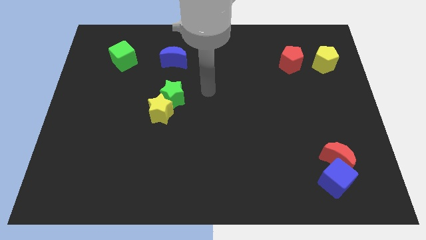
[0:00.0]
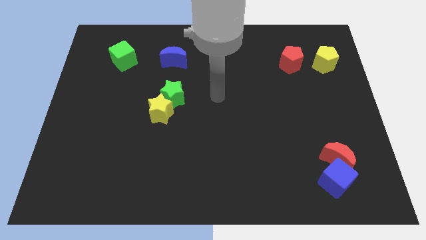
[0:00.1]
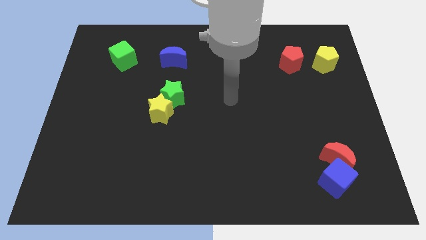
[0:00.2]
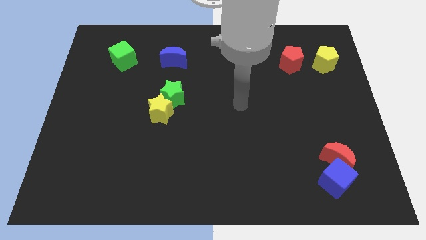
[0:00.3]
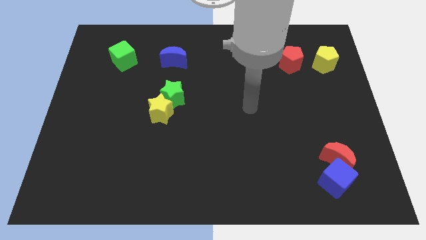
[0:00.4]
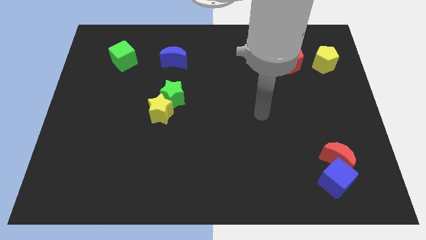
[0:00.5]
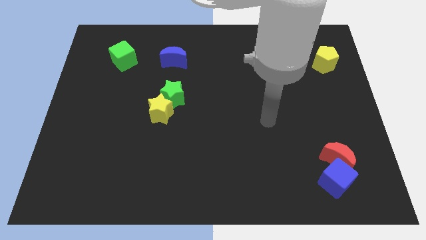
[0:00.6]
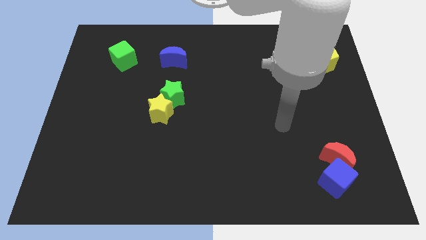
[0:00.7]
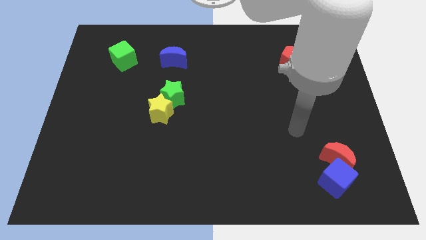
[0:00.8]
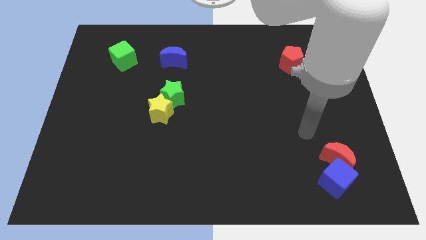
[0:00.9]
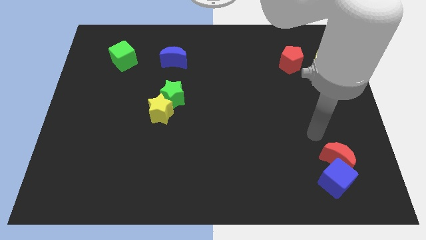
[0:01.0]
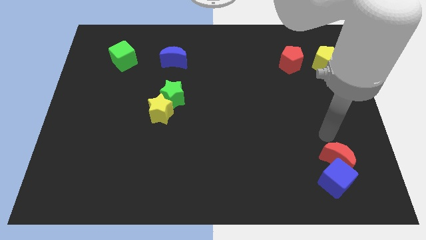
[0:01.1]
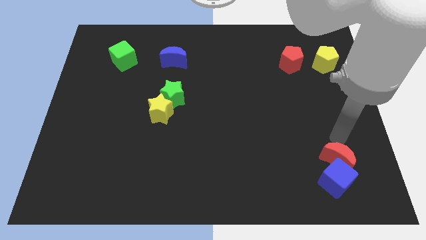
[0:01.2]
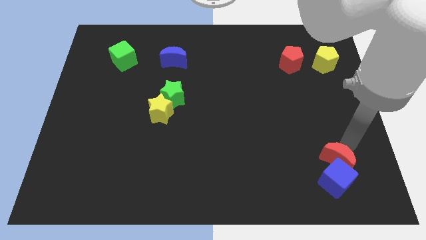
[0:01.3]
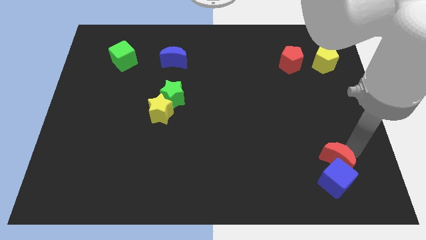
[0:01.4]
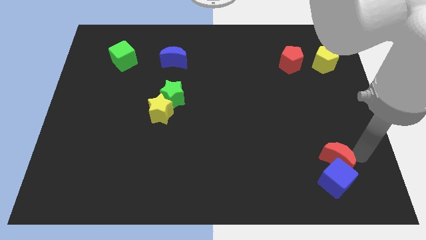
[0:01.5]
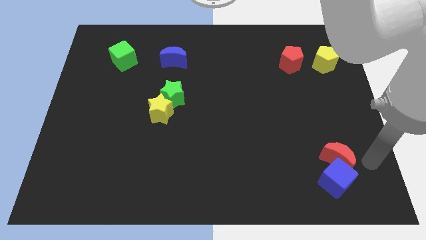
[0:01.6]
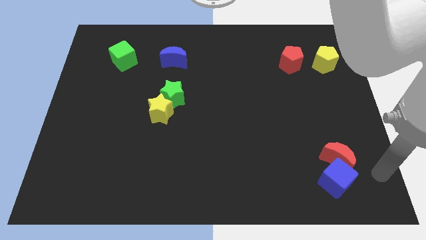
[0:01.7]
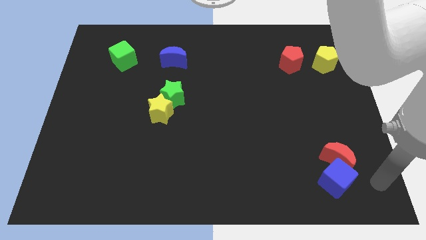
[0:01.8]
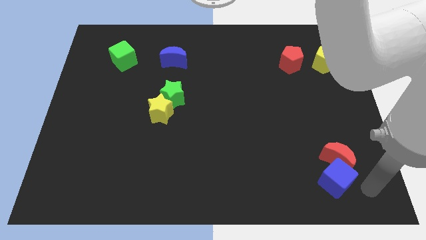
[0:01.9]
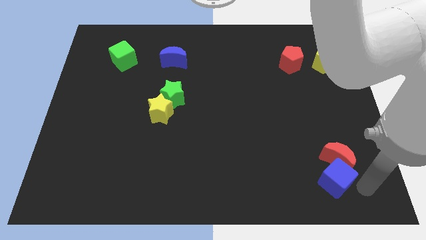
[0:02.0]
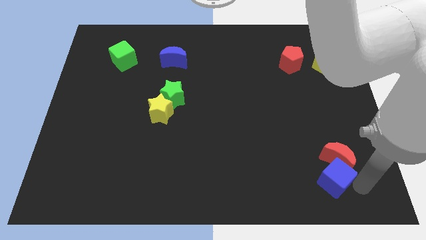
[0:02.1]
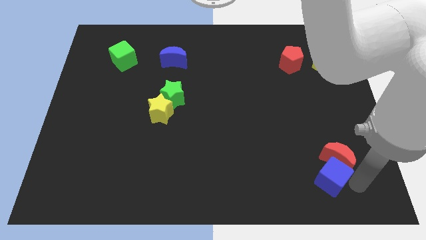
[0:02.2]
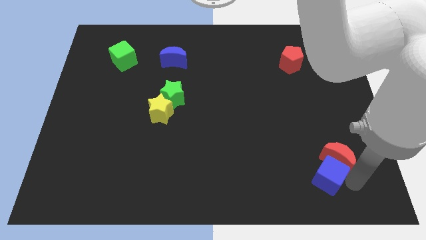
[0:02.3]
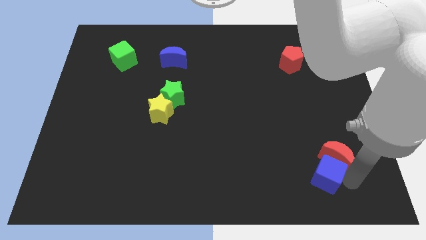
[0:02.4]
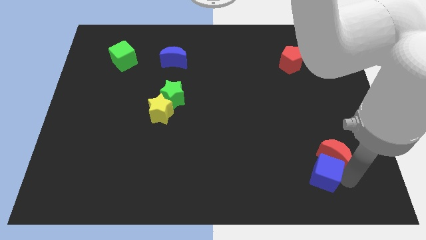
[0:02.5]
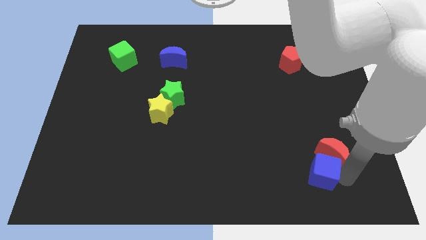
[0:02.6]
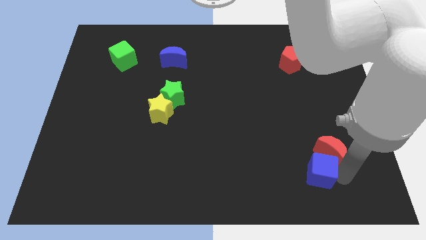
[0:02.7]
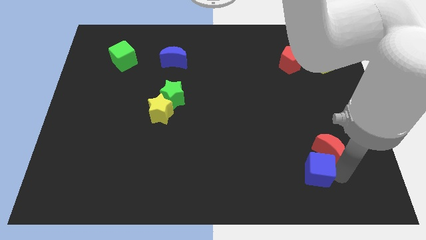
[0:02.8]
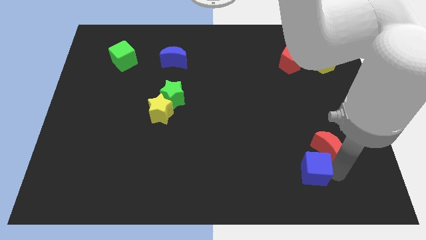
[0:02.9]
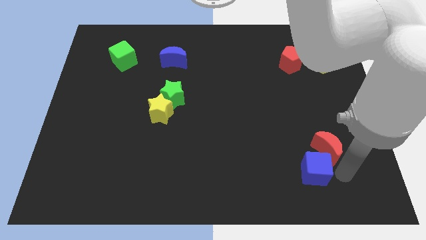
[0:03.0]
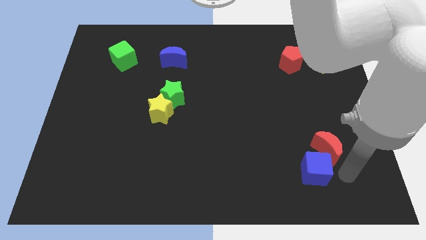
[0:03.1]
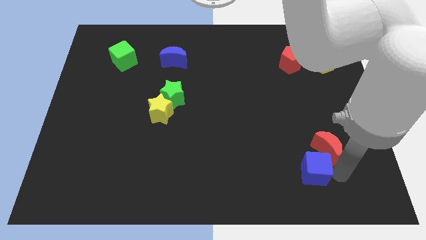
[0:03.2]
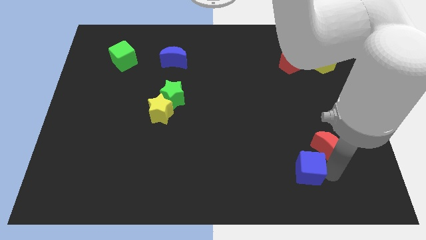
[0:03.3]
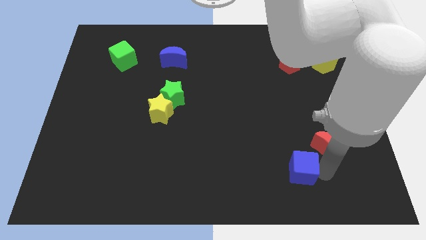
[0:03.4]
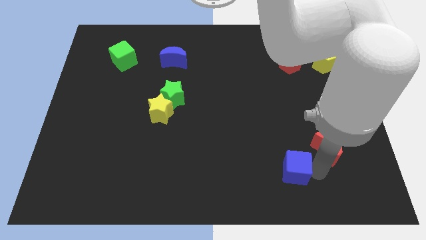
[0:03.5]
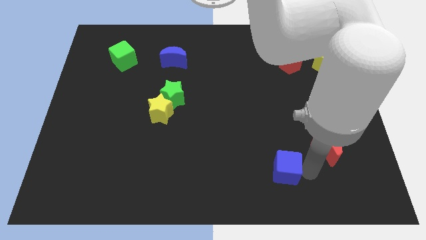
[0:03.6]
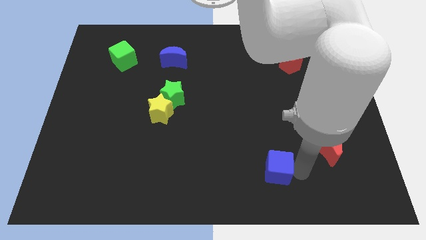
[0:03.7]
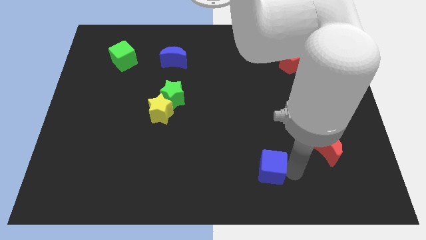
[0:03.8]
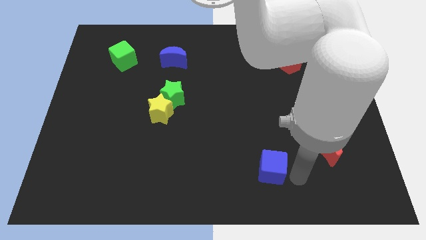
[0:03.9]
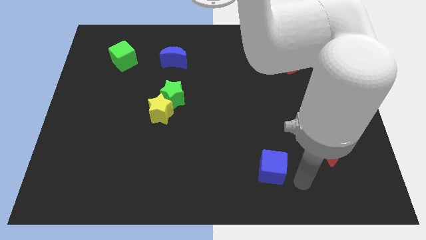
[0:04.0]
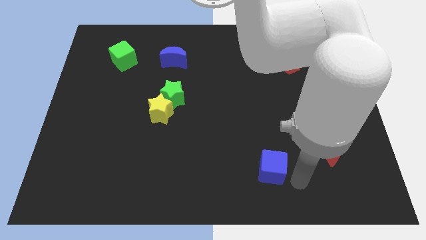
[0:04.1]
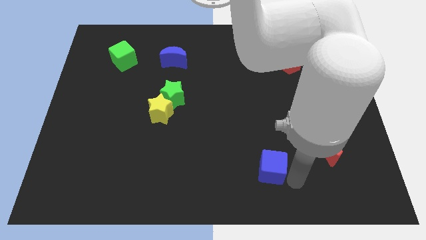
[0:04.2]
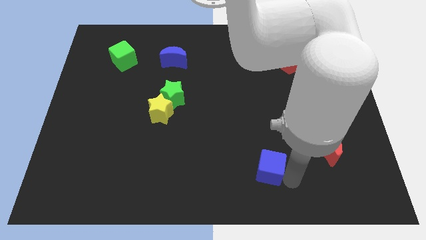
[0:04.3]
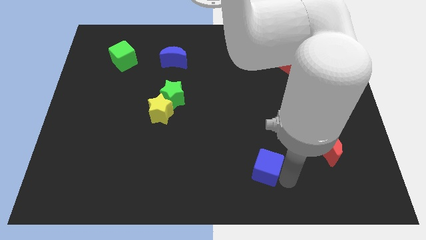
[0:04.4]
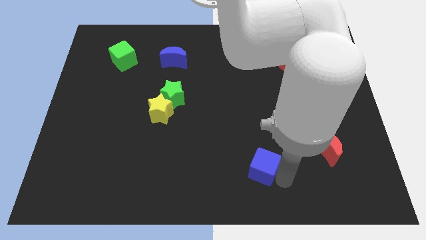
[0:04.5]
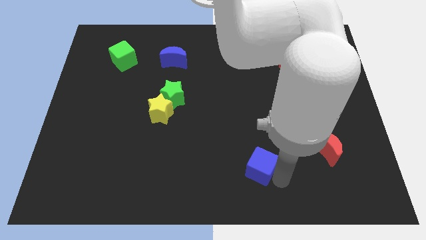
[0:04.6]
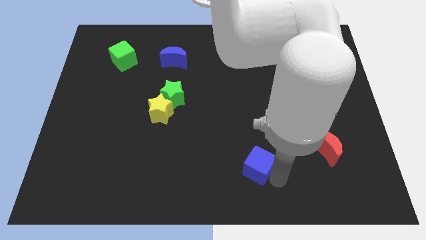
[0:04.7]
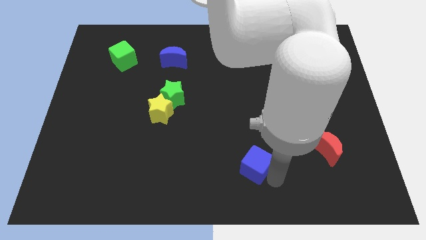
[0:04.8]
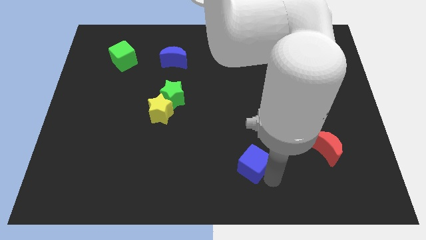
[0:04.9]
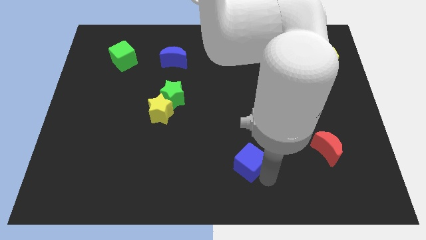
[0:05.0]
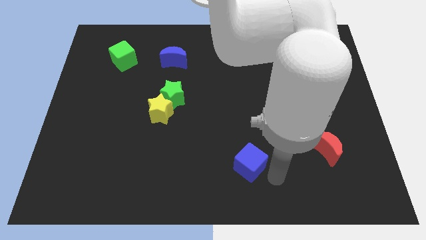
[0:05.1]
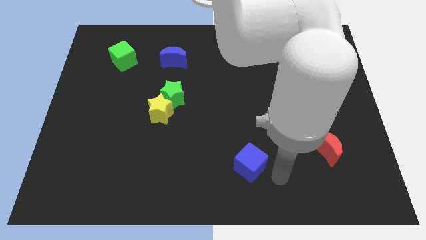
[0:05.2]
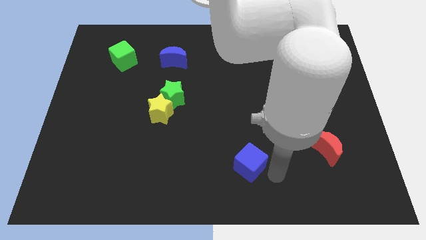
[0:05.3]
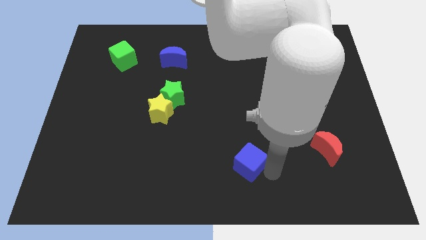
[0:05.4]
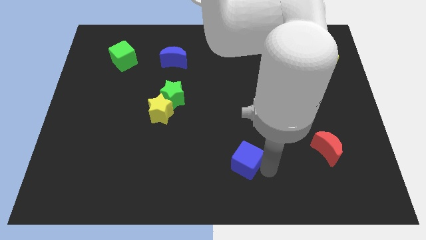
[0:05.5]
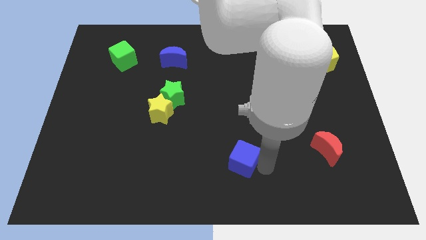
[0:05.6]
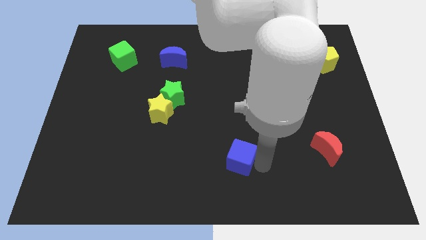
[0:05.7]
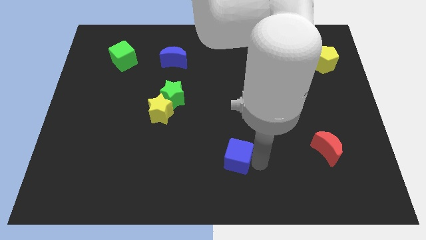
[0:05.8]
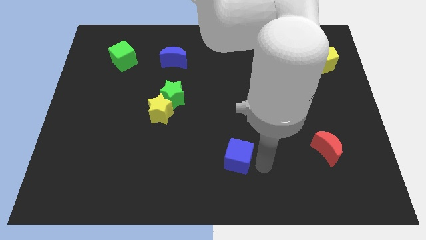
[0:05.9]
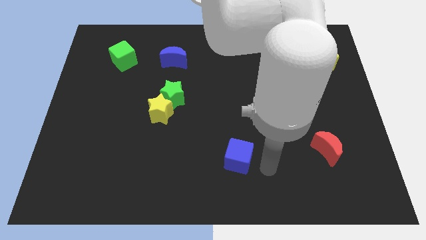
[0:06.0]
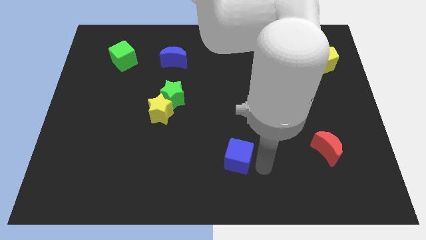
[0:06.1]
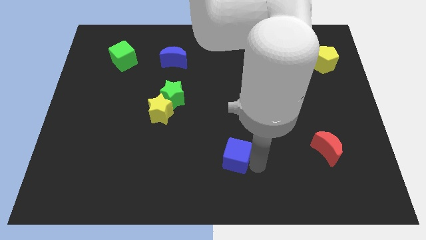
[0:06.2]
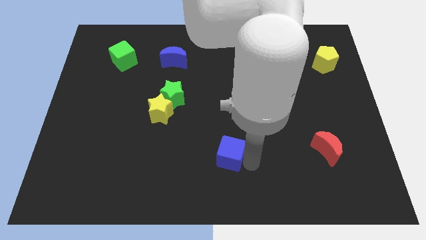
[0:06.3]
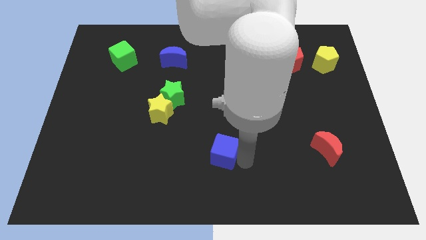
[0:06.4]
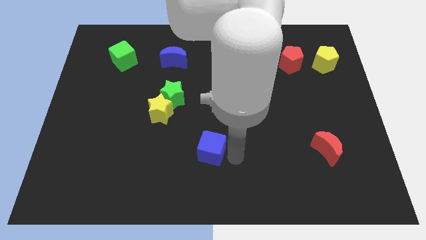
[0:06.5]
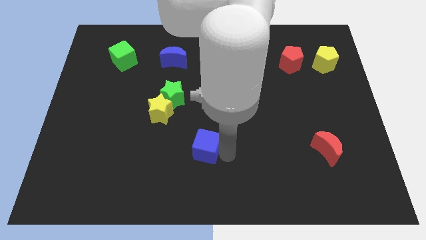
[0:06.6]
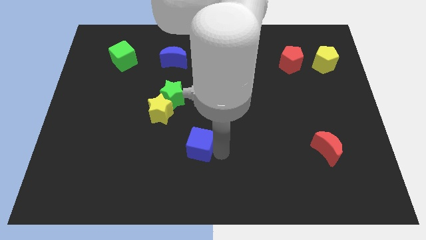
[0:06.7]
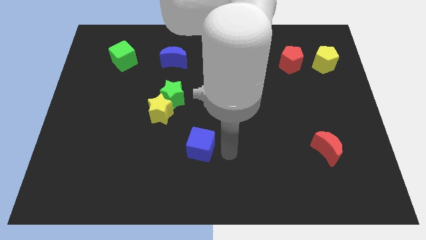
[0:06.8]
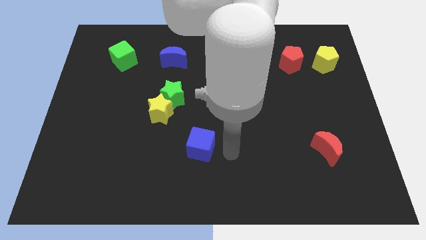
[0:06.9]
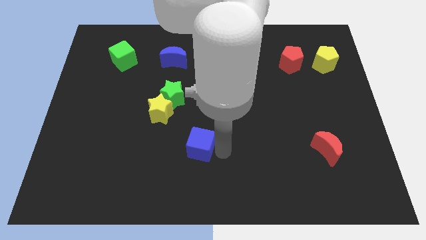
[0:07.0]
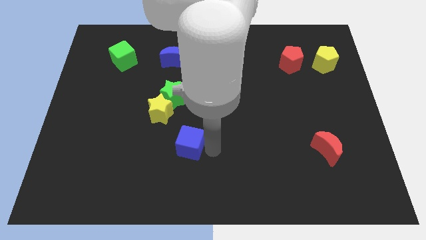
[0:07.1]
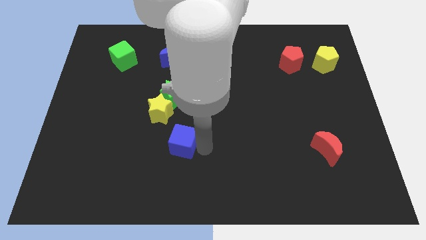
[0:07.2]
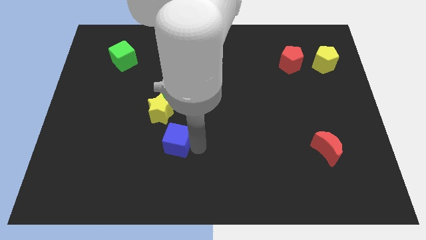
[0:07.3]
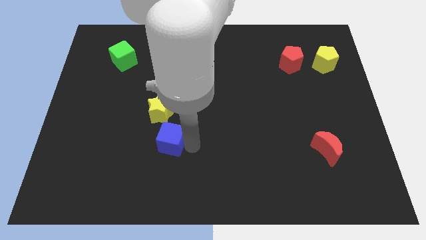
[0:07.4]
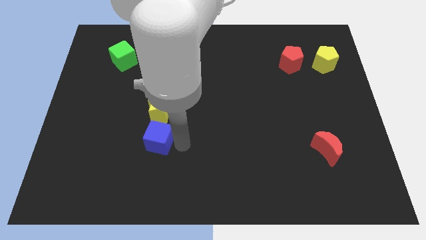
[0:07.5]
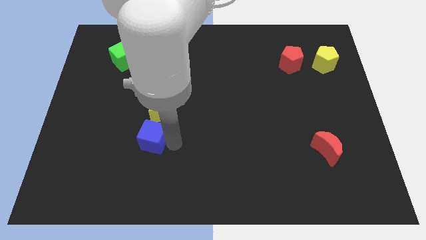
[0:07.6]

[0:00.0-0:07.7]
push the blue cube to the bottom left of the yellow star
